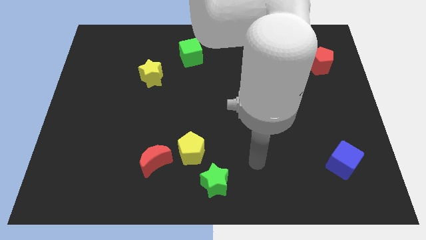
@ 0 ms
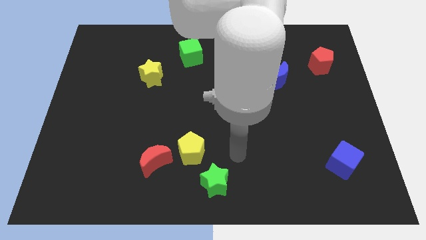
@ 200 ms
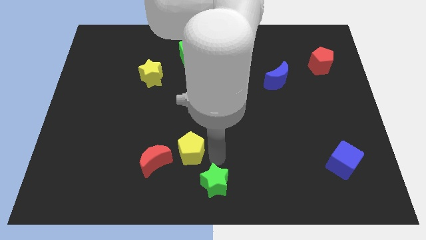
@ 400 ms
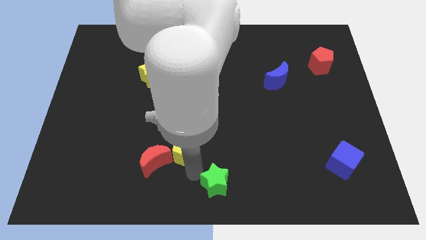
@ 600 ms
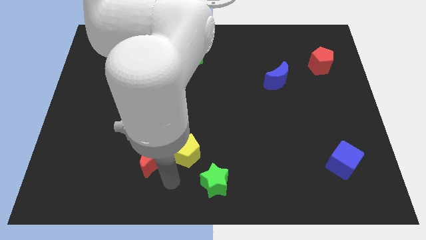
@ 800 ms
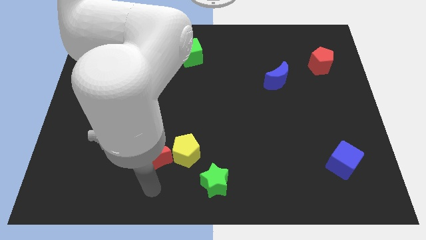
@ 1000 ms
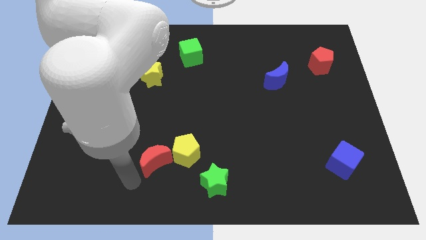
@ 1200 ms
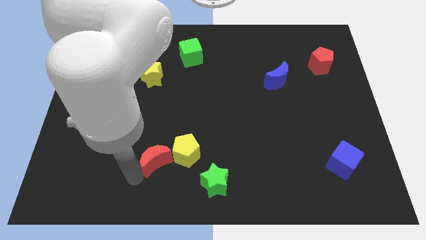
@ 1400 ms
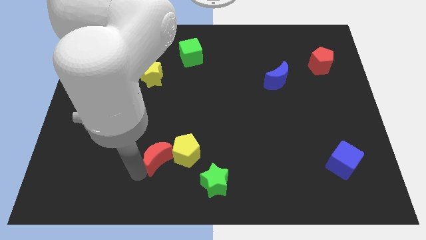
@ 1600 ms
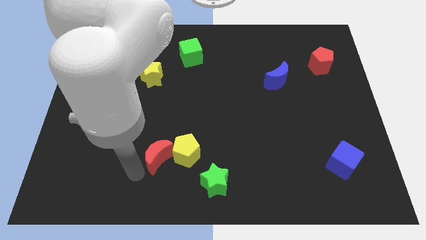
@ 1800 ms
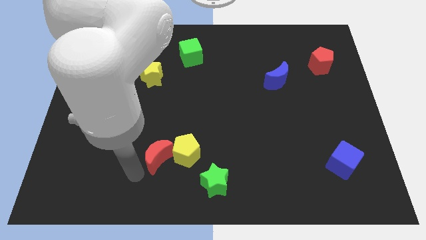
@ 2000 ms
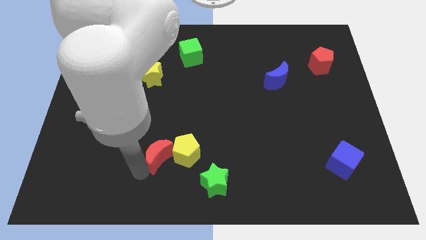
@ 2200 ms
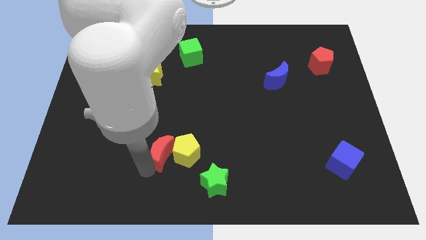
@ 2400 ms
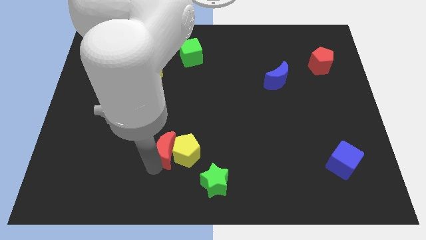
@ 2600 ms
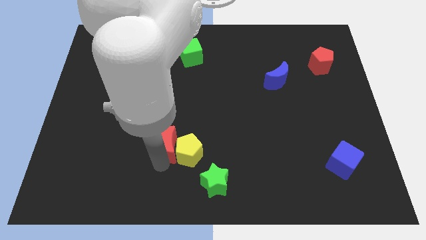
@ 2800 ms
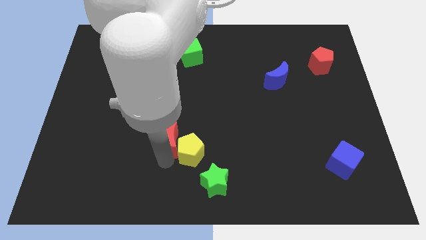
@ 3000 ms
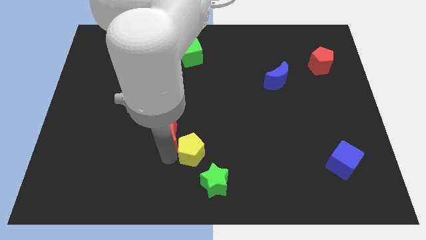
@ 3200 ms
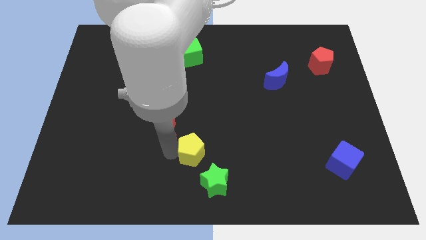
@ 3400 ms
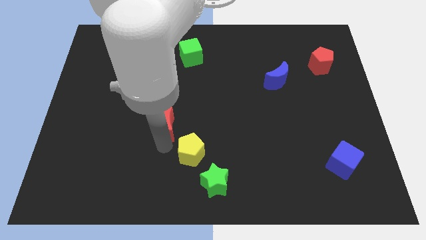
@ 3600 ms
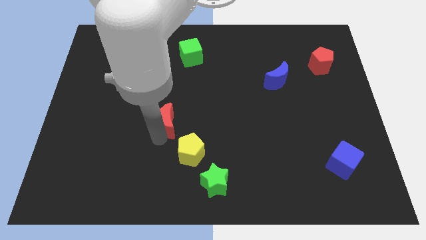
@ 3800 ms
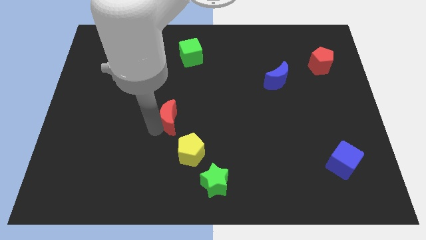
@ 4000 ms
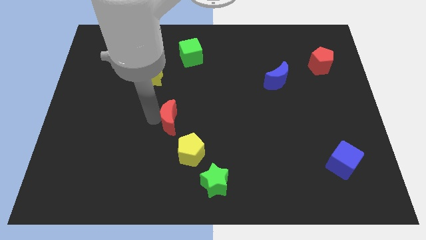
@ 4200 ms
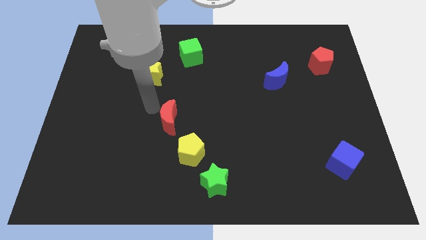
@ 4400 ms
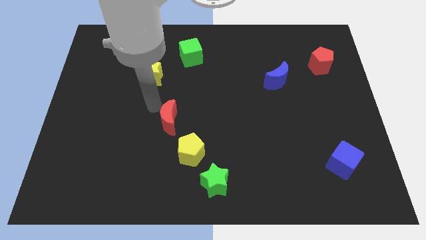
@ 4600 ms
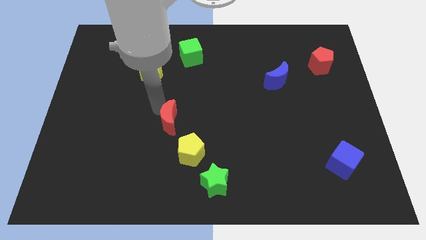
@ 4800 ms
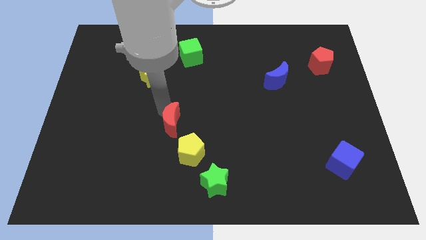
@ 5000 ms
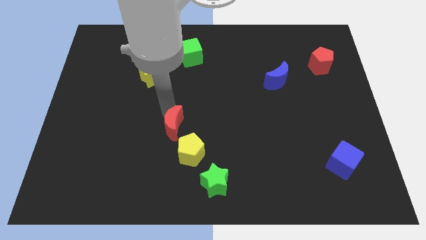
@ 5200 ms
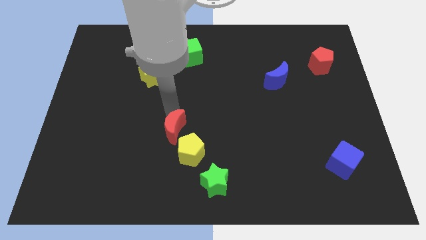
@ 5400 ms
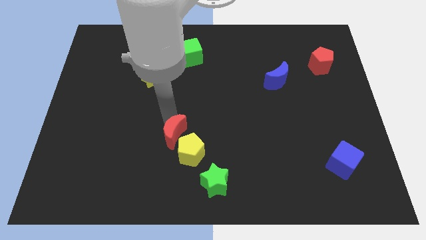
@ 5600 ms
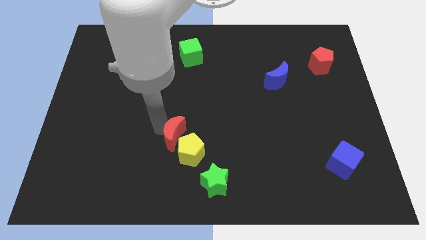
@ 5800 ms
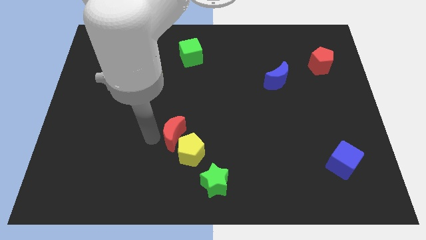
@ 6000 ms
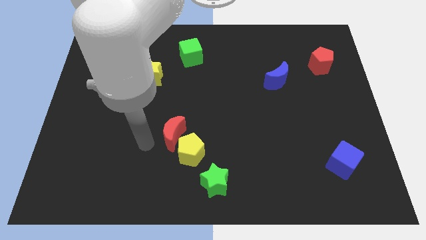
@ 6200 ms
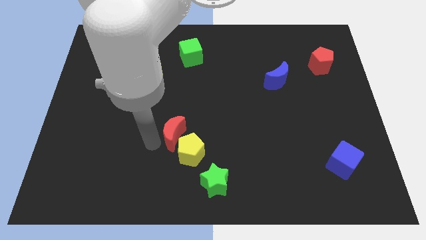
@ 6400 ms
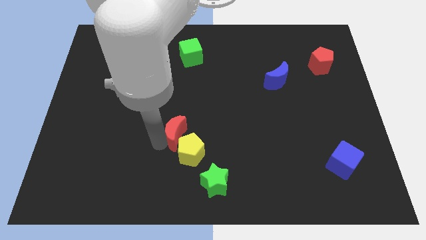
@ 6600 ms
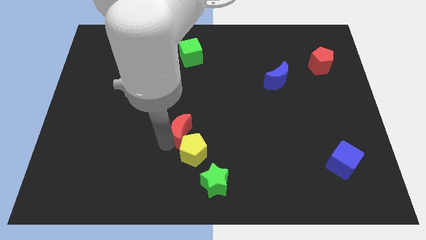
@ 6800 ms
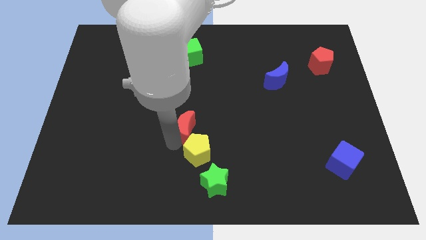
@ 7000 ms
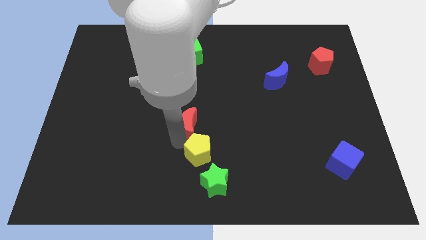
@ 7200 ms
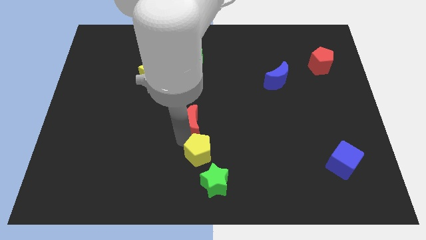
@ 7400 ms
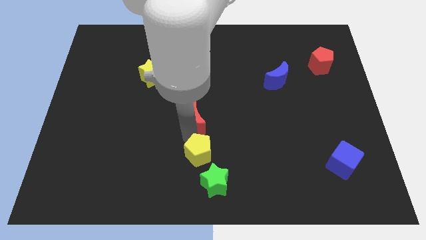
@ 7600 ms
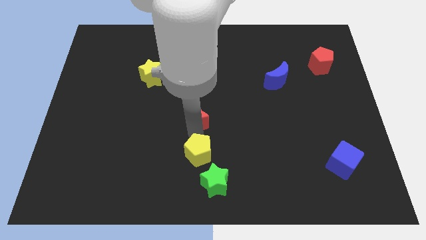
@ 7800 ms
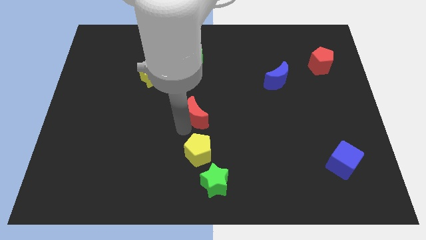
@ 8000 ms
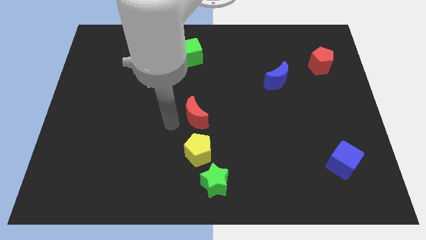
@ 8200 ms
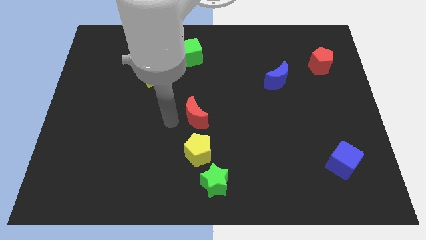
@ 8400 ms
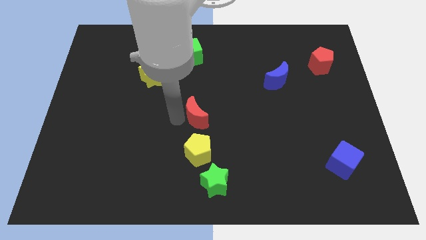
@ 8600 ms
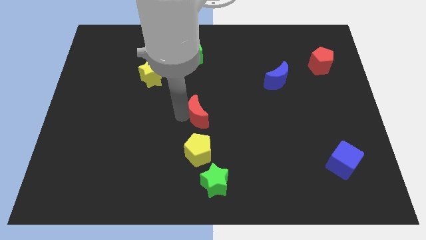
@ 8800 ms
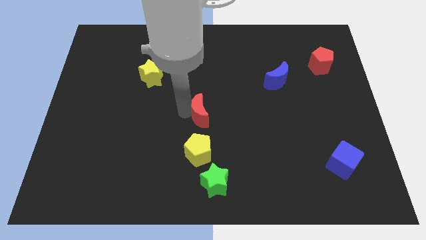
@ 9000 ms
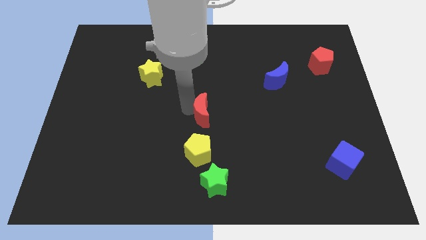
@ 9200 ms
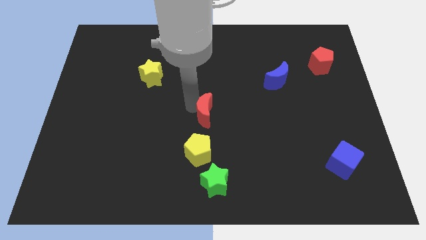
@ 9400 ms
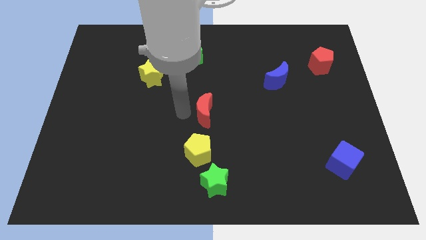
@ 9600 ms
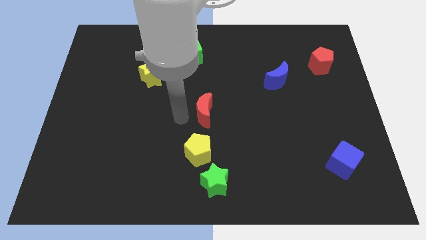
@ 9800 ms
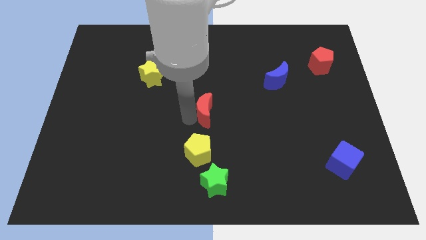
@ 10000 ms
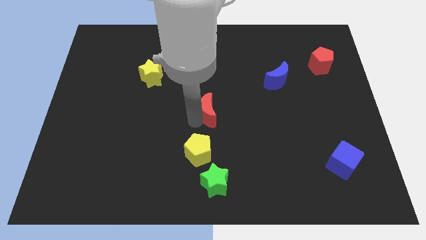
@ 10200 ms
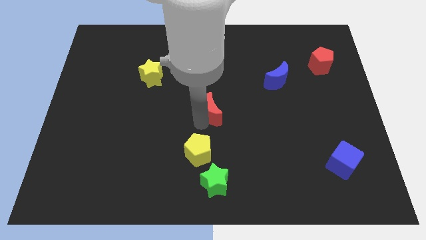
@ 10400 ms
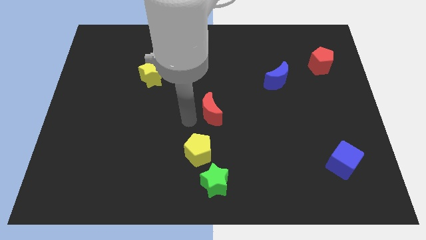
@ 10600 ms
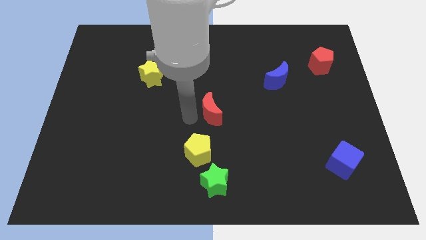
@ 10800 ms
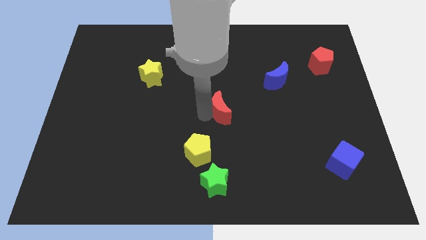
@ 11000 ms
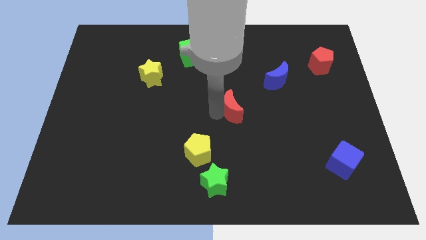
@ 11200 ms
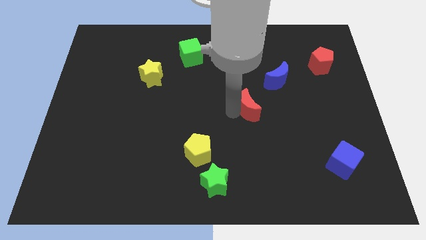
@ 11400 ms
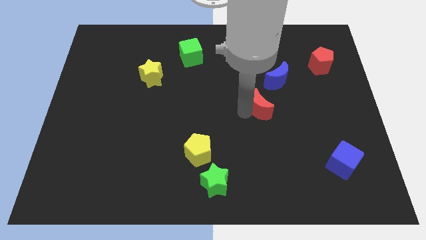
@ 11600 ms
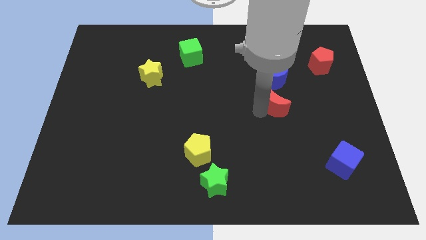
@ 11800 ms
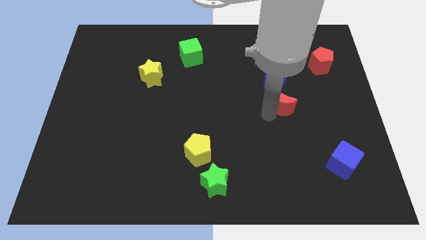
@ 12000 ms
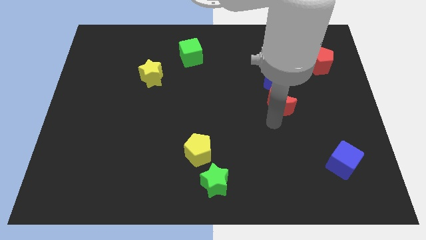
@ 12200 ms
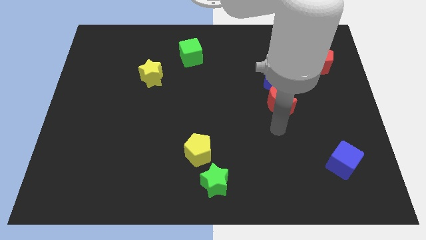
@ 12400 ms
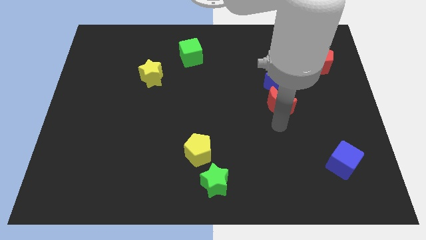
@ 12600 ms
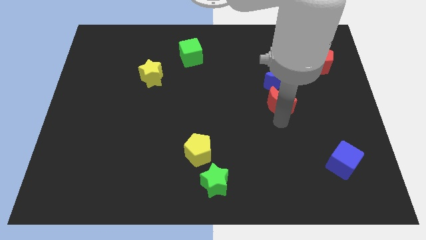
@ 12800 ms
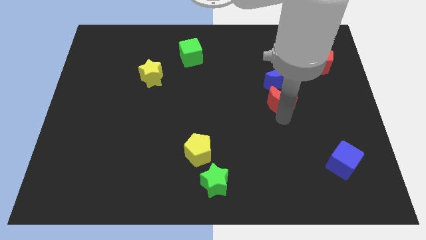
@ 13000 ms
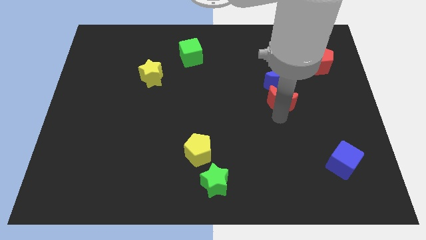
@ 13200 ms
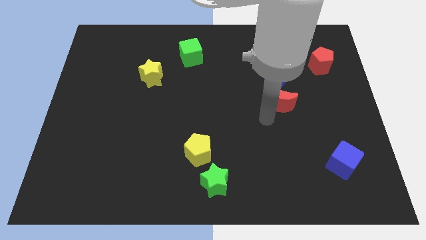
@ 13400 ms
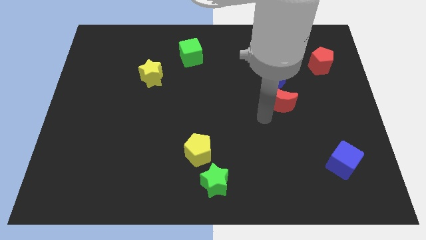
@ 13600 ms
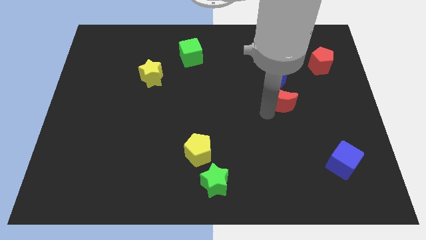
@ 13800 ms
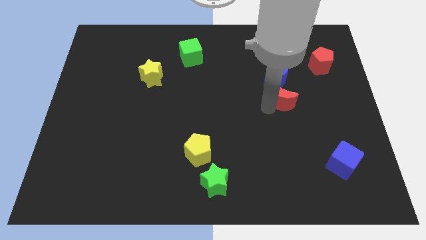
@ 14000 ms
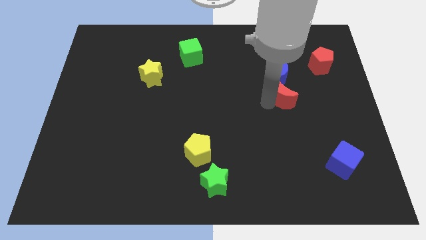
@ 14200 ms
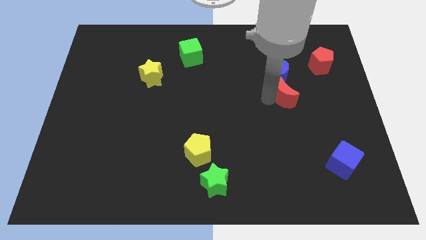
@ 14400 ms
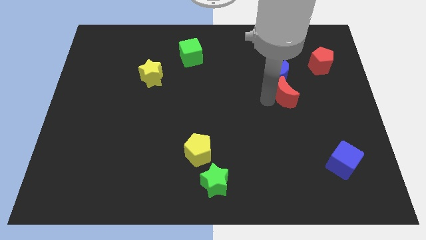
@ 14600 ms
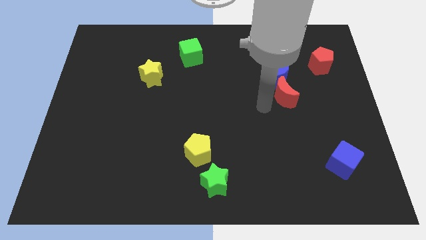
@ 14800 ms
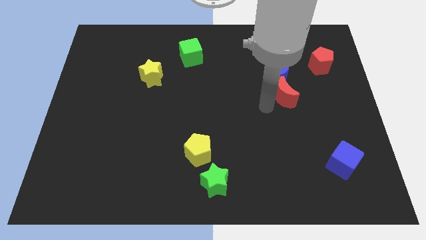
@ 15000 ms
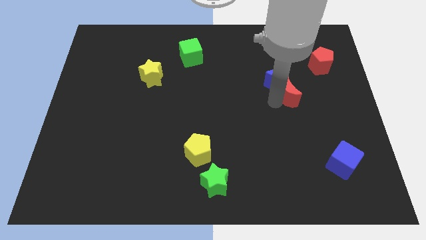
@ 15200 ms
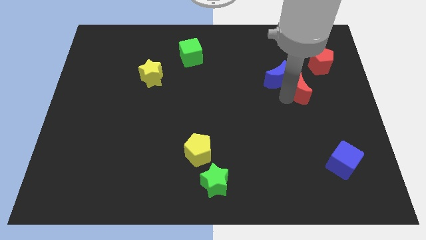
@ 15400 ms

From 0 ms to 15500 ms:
push the red moon to the bottom left of the red pentagon

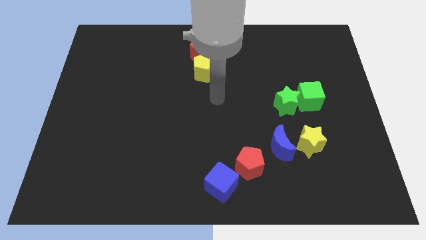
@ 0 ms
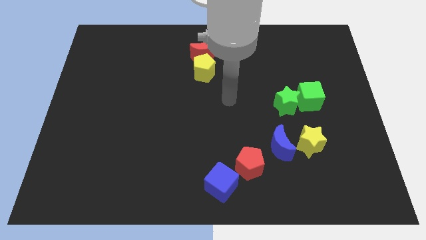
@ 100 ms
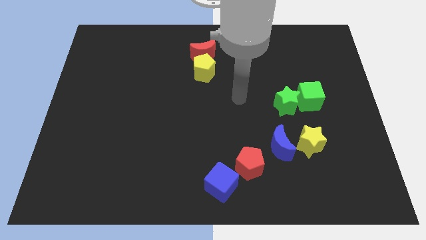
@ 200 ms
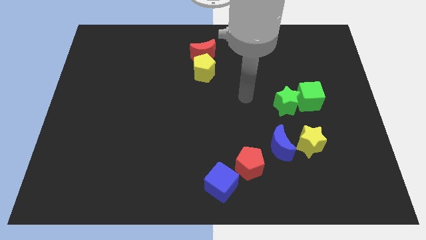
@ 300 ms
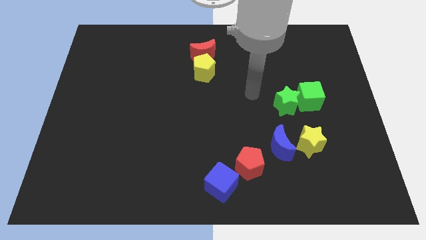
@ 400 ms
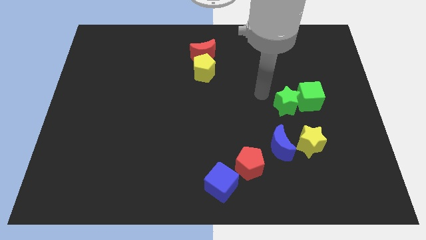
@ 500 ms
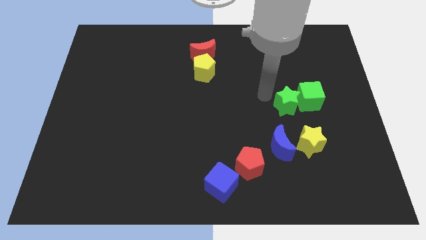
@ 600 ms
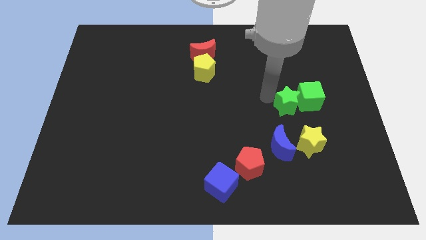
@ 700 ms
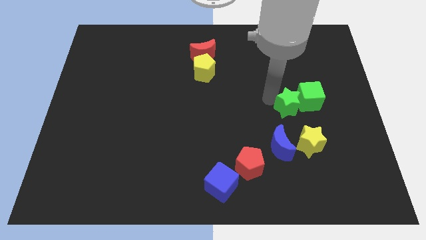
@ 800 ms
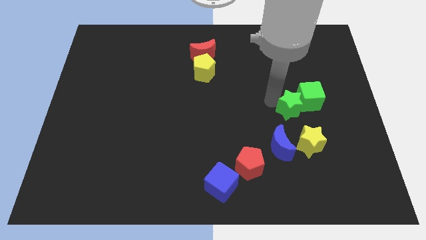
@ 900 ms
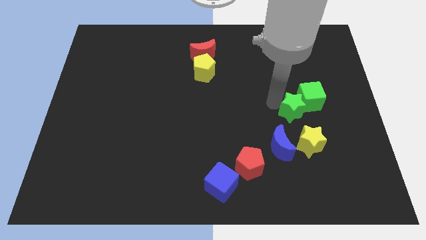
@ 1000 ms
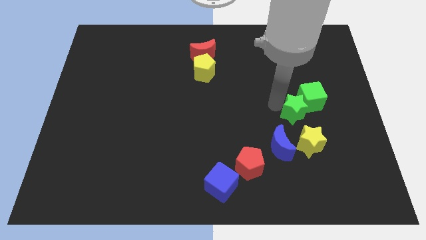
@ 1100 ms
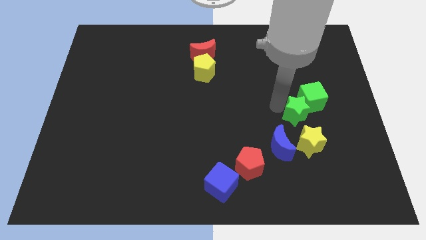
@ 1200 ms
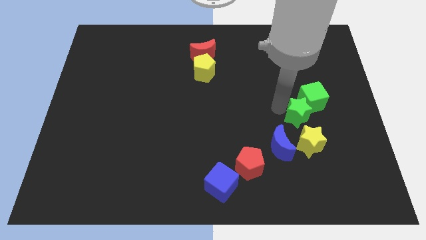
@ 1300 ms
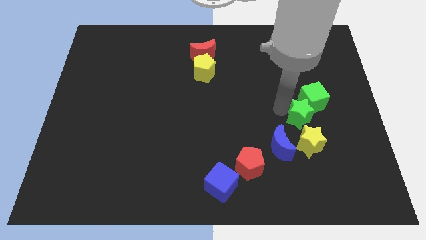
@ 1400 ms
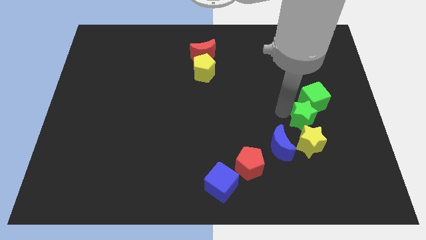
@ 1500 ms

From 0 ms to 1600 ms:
move the green star to the top right side of the yellow star
